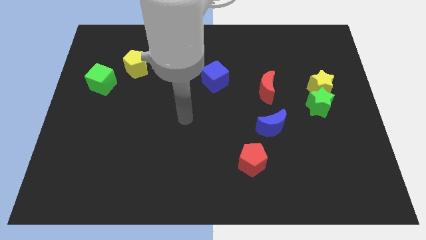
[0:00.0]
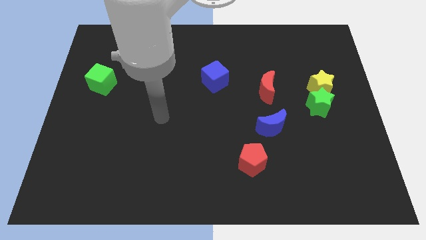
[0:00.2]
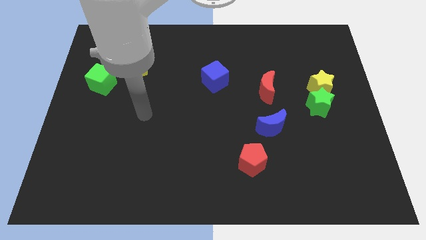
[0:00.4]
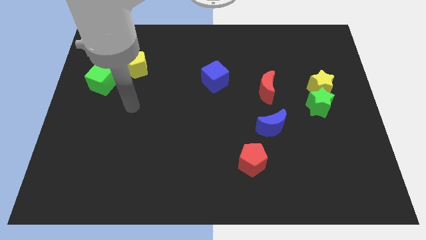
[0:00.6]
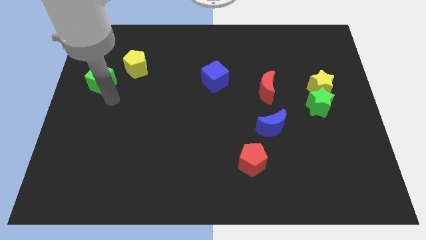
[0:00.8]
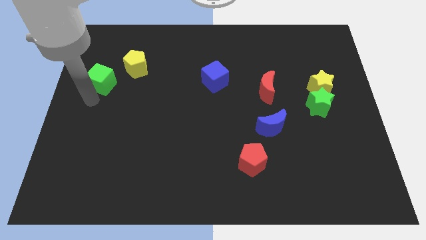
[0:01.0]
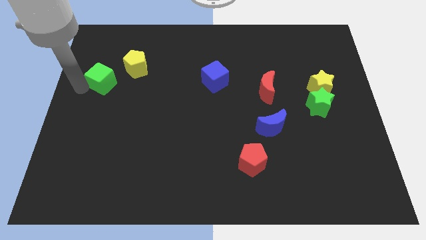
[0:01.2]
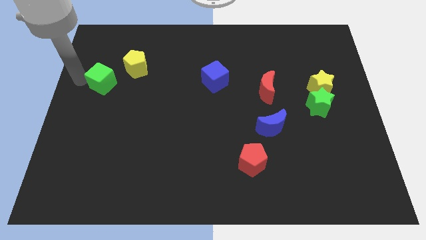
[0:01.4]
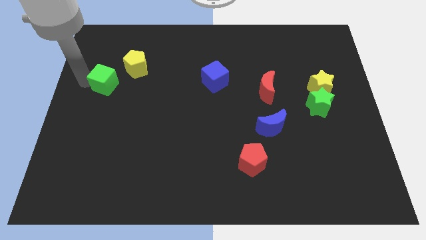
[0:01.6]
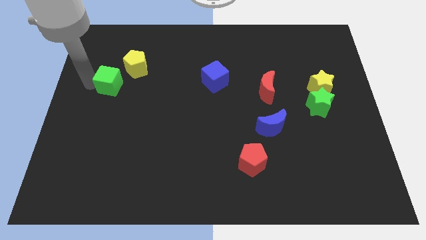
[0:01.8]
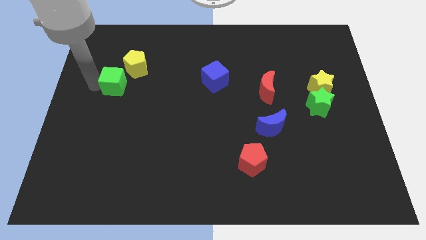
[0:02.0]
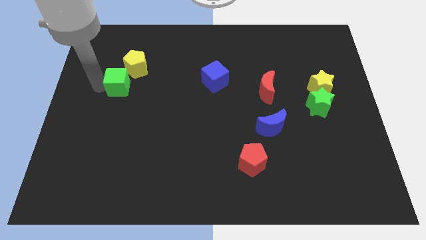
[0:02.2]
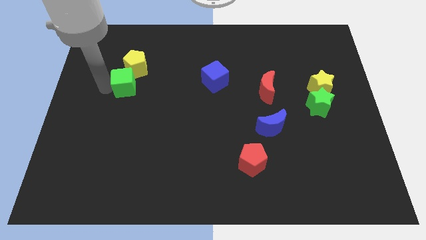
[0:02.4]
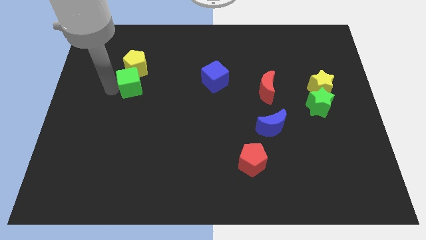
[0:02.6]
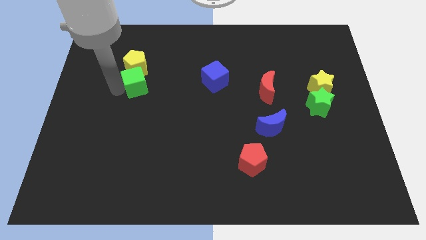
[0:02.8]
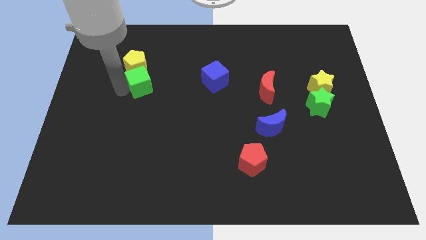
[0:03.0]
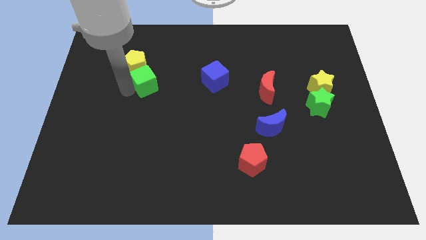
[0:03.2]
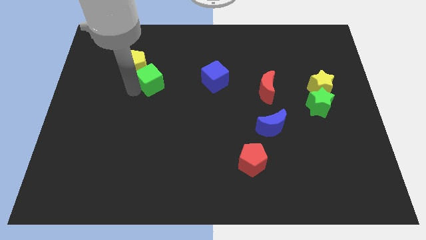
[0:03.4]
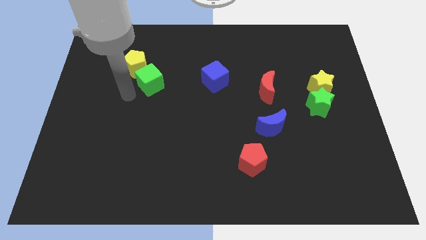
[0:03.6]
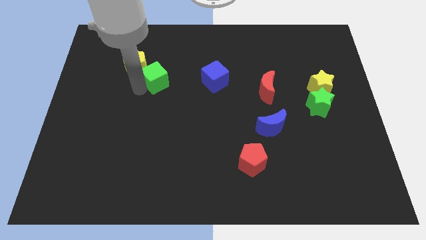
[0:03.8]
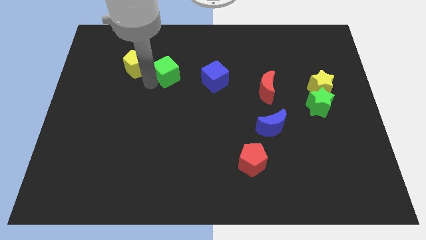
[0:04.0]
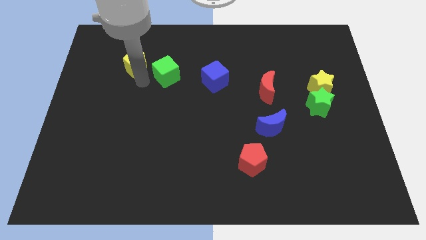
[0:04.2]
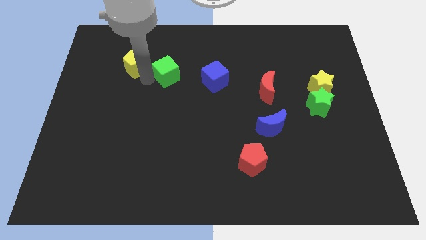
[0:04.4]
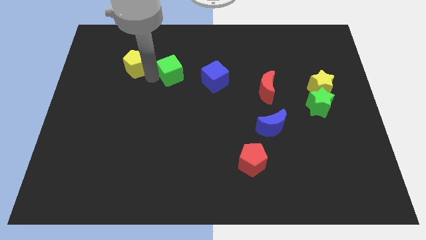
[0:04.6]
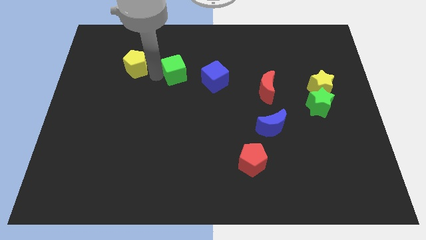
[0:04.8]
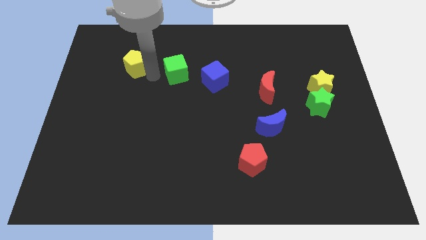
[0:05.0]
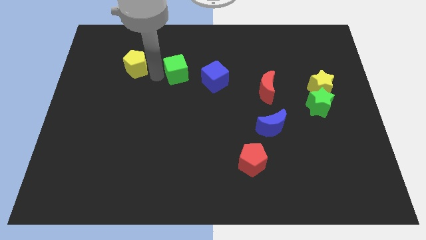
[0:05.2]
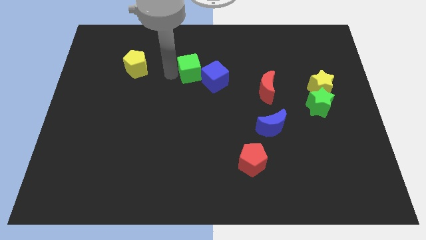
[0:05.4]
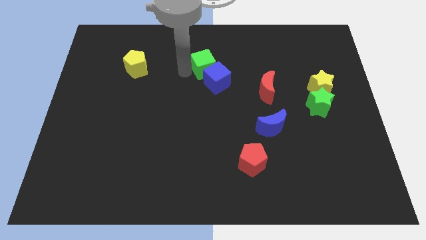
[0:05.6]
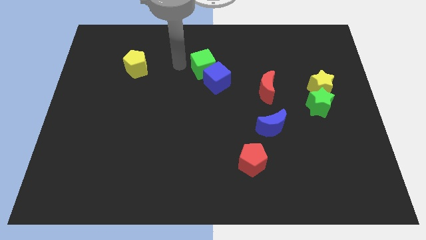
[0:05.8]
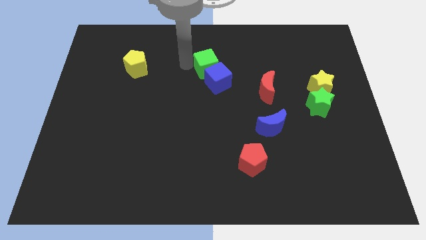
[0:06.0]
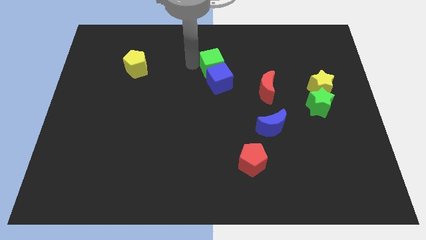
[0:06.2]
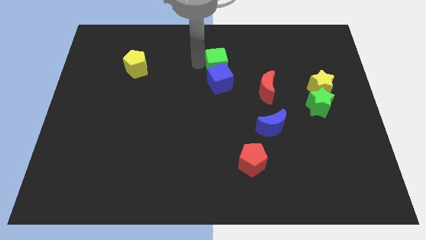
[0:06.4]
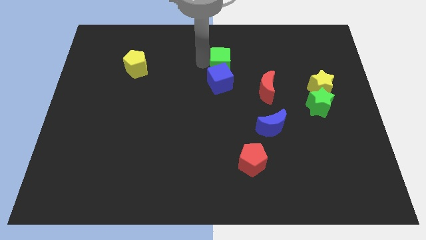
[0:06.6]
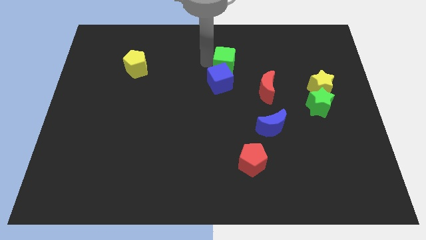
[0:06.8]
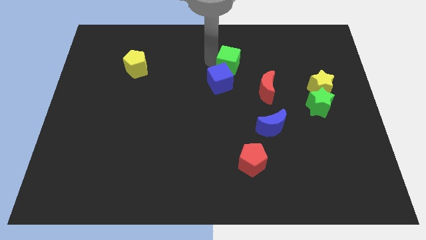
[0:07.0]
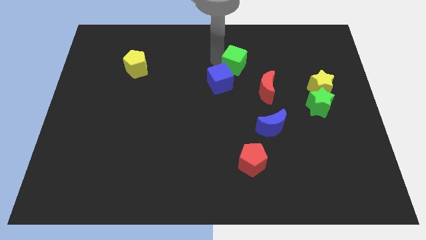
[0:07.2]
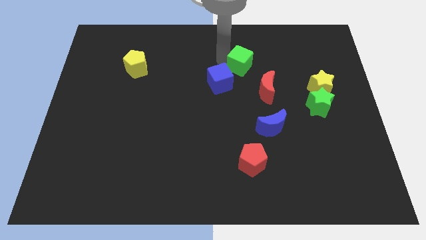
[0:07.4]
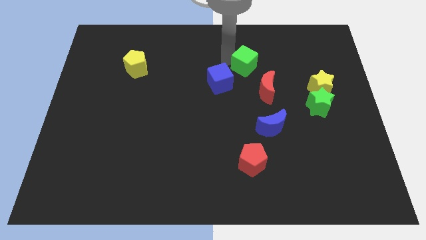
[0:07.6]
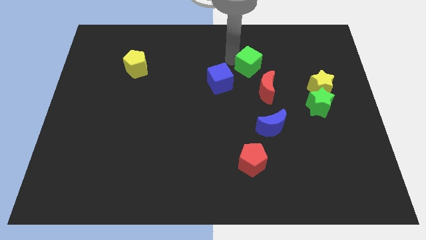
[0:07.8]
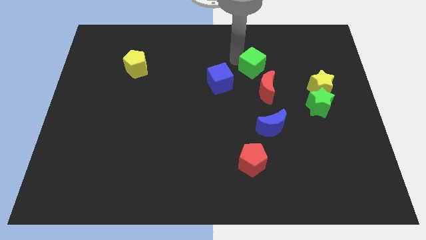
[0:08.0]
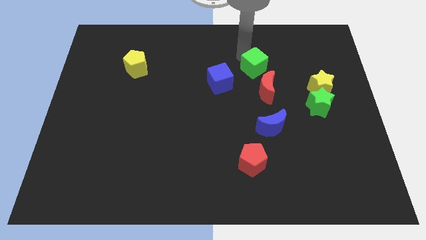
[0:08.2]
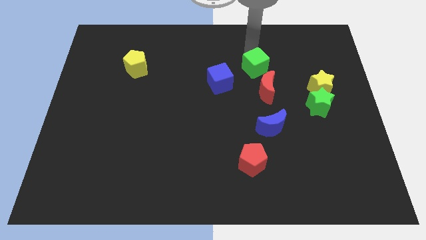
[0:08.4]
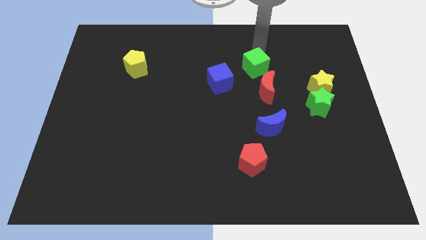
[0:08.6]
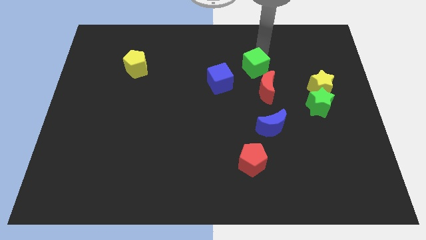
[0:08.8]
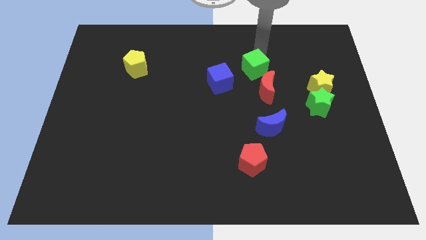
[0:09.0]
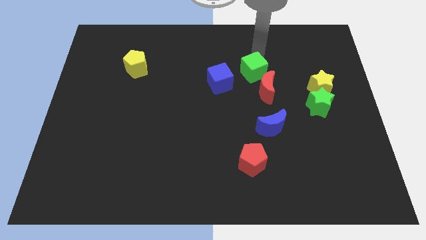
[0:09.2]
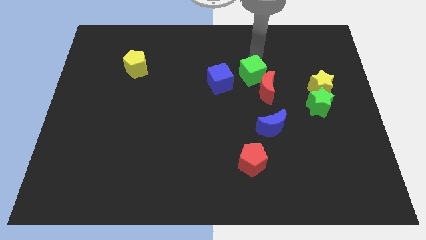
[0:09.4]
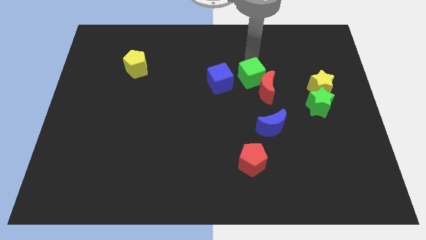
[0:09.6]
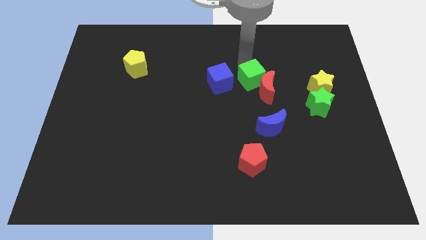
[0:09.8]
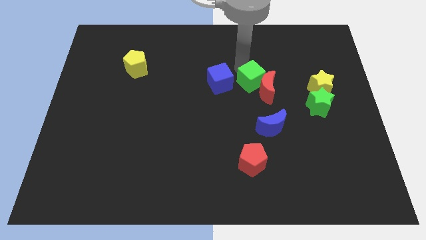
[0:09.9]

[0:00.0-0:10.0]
move the green cube to the top side of the blue moon

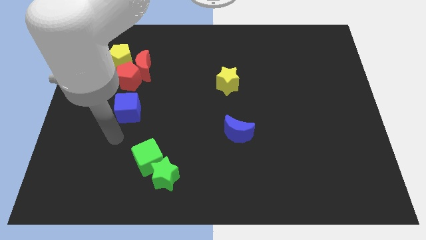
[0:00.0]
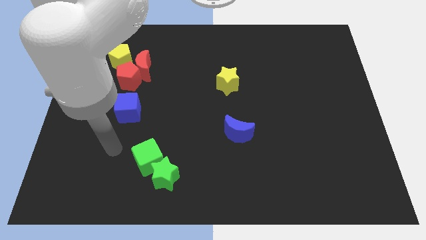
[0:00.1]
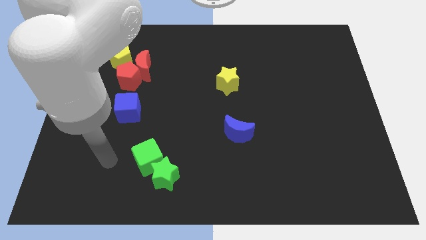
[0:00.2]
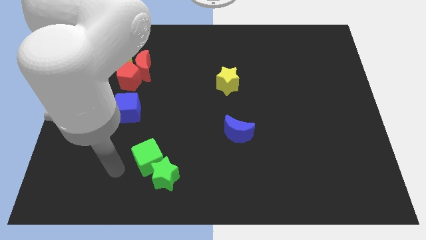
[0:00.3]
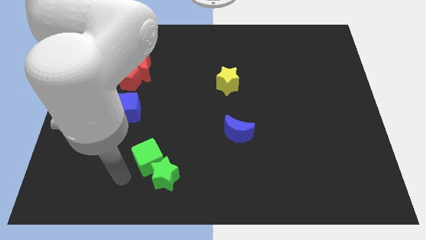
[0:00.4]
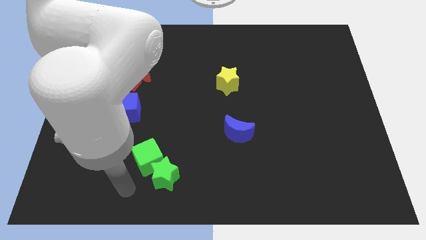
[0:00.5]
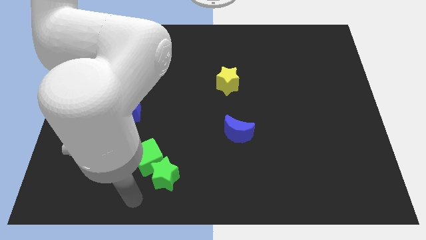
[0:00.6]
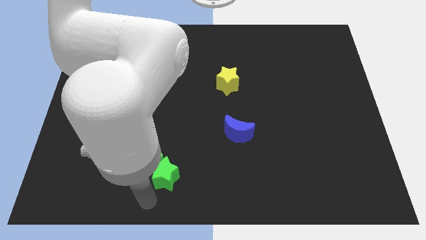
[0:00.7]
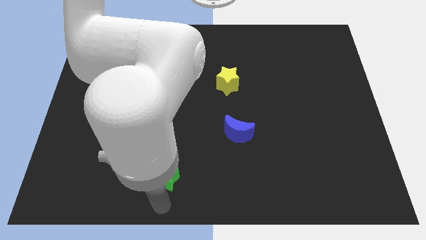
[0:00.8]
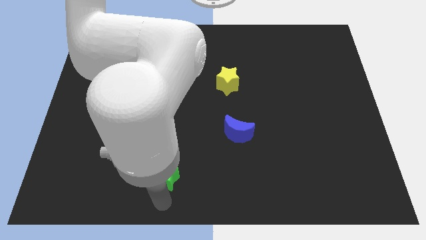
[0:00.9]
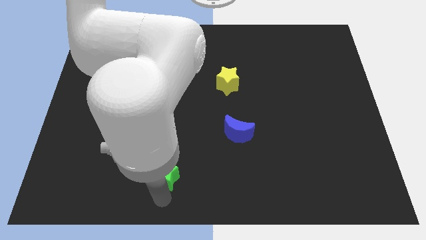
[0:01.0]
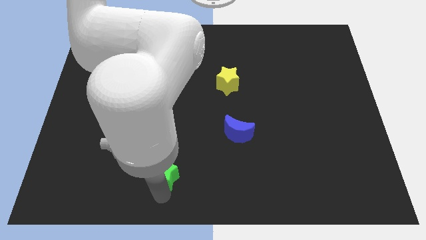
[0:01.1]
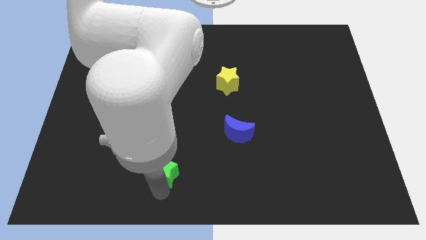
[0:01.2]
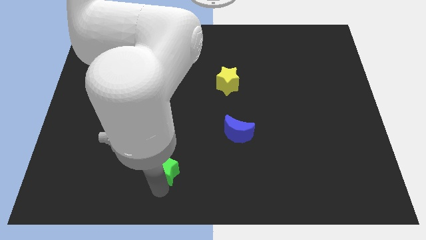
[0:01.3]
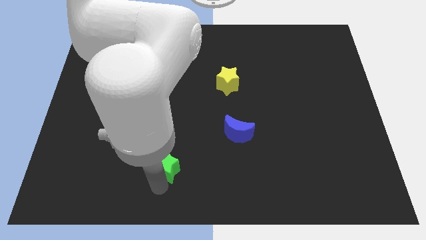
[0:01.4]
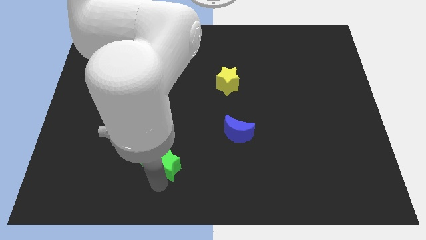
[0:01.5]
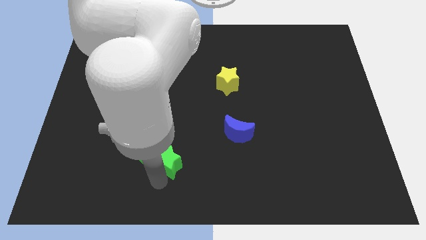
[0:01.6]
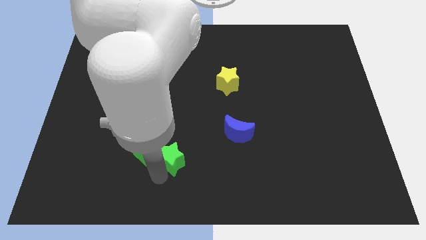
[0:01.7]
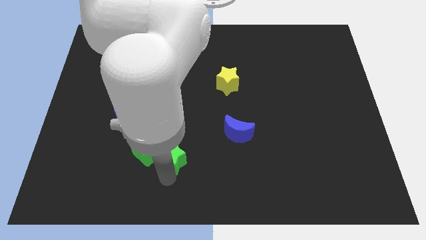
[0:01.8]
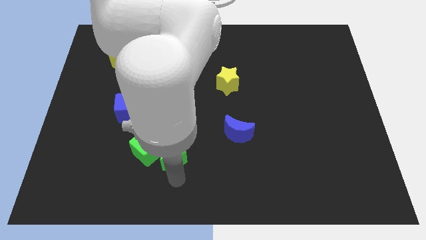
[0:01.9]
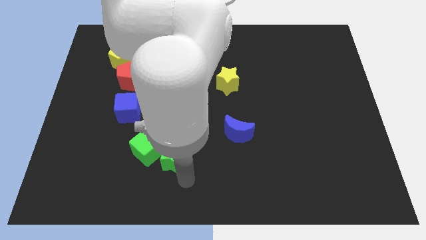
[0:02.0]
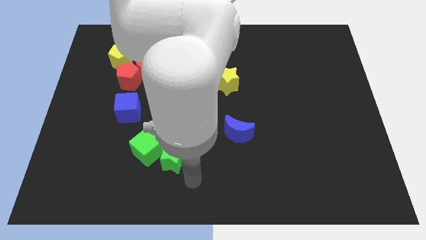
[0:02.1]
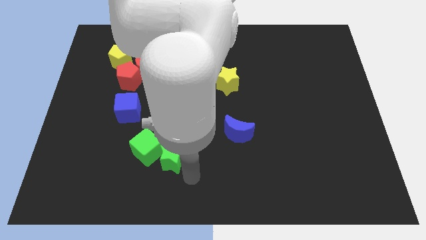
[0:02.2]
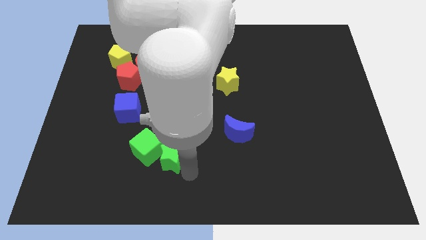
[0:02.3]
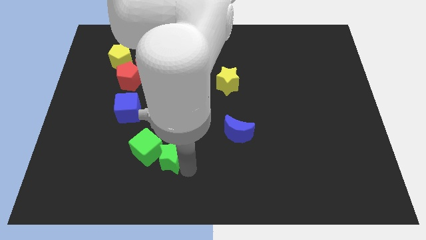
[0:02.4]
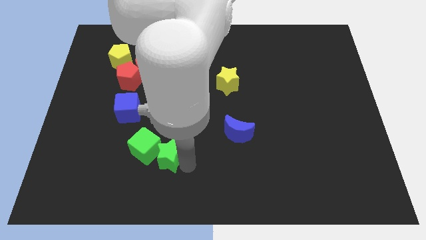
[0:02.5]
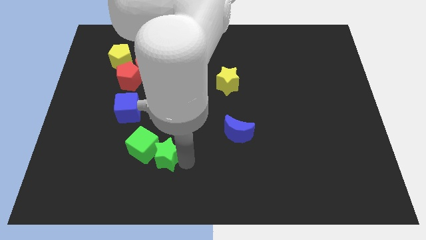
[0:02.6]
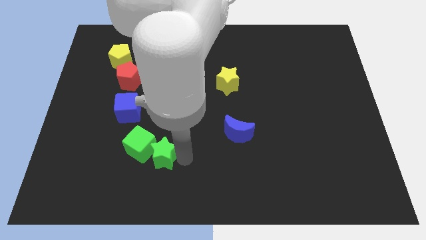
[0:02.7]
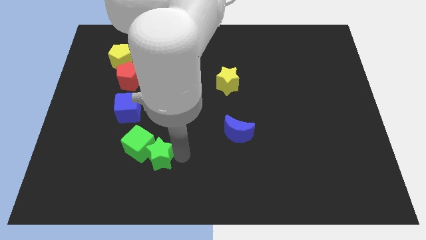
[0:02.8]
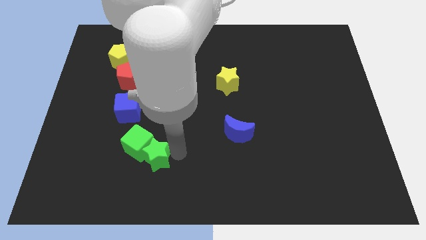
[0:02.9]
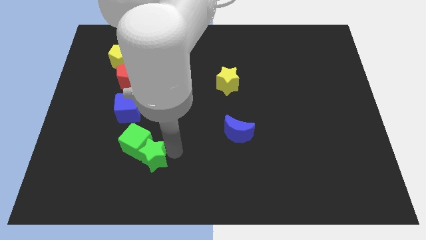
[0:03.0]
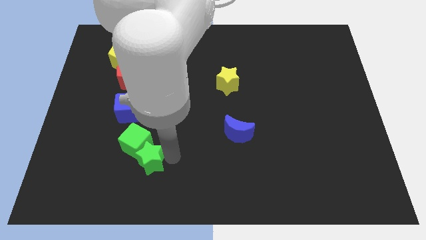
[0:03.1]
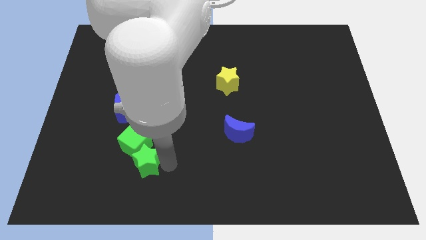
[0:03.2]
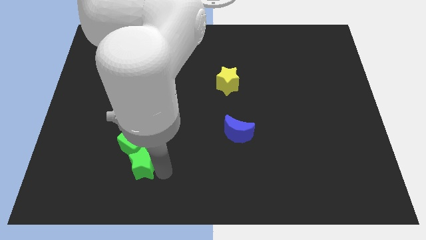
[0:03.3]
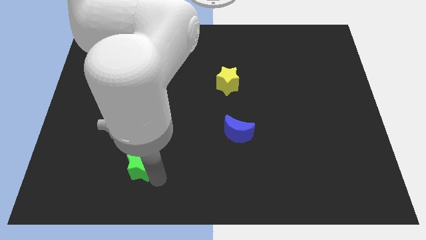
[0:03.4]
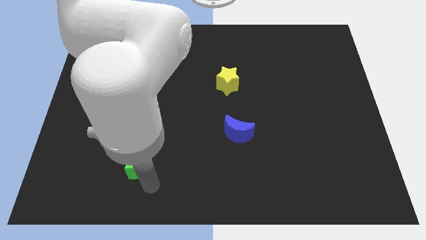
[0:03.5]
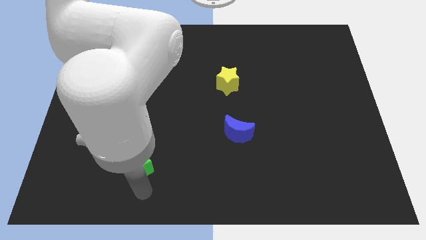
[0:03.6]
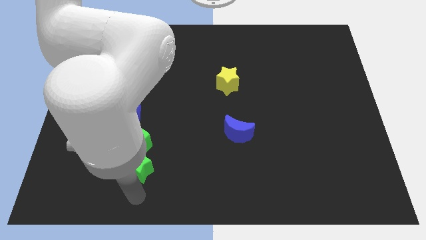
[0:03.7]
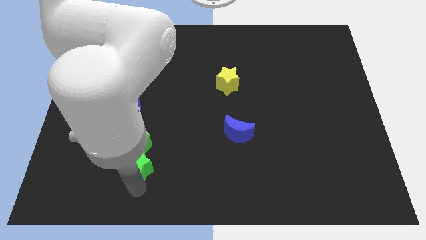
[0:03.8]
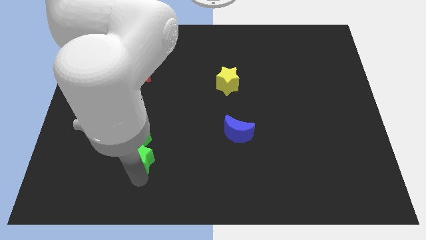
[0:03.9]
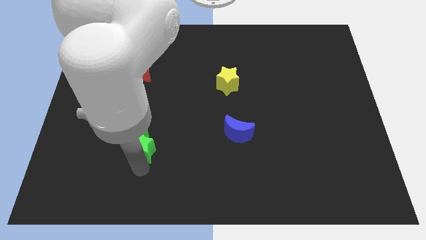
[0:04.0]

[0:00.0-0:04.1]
put the green star to the bottom right of the blue cube
